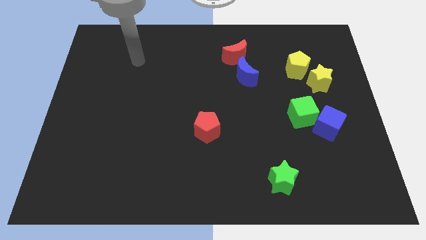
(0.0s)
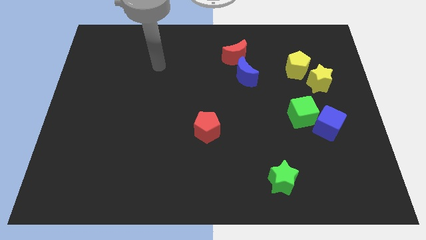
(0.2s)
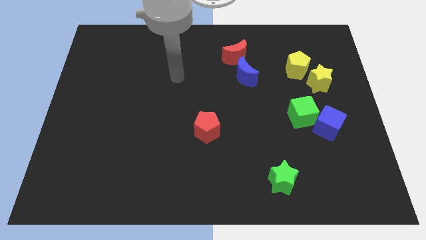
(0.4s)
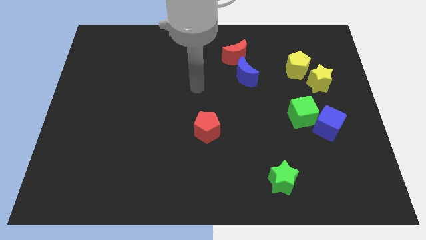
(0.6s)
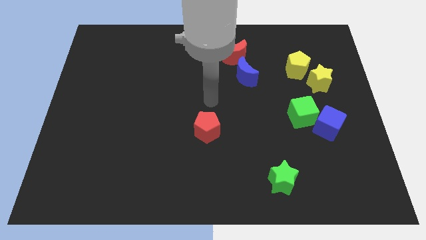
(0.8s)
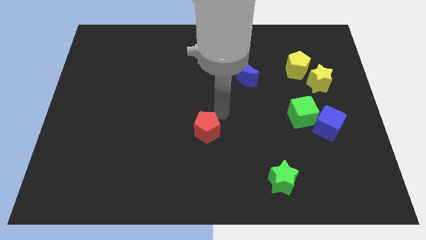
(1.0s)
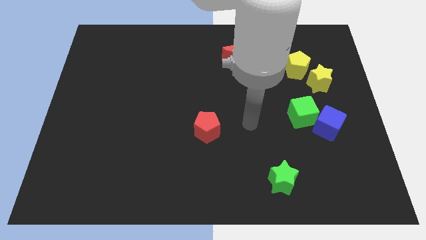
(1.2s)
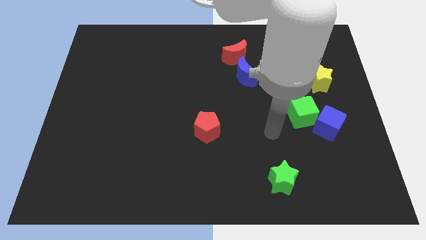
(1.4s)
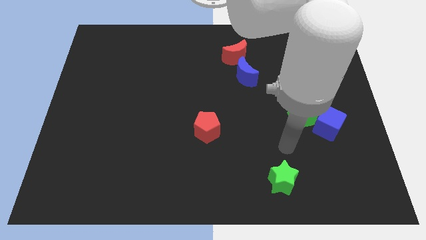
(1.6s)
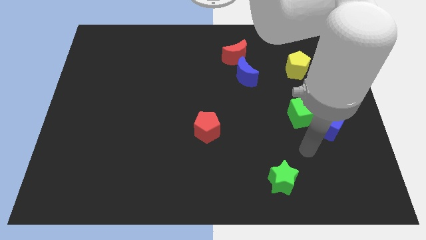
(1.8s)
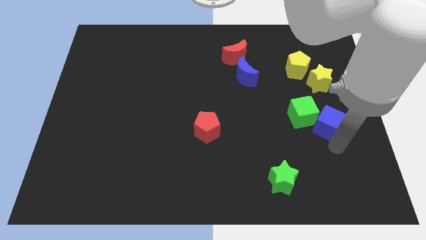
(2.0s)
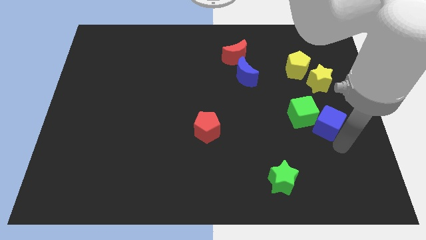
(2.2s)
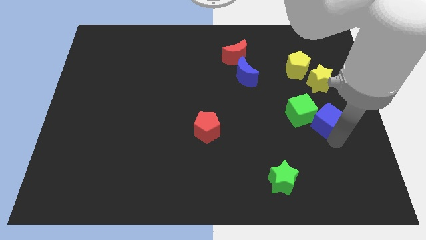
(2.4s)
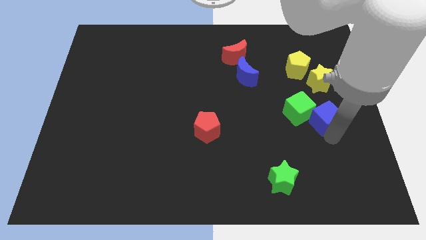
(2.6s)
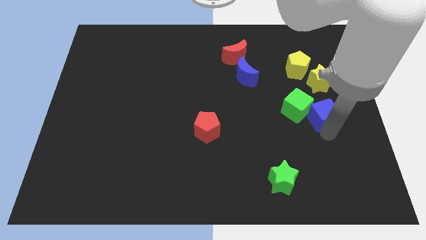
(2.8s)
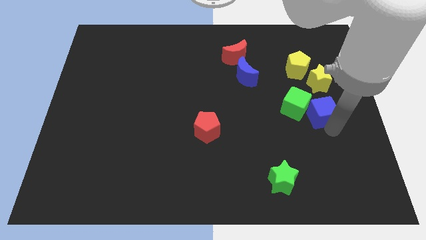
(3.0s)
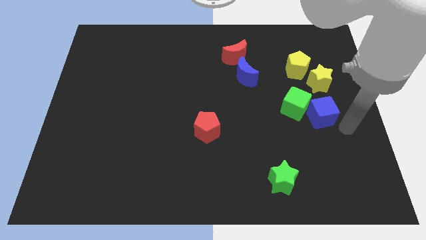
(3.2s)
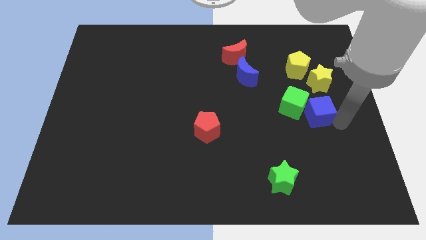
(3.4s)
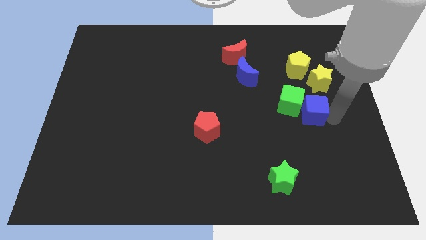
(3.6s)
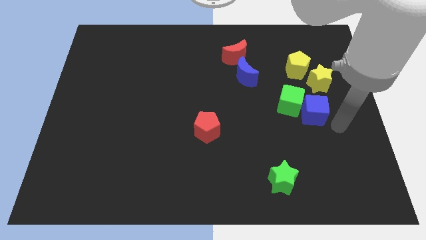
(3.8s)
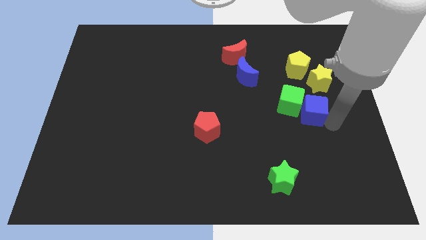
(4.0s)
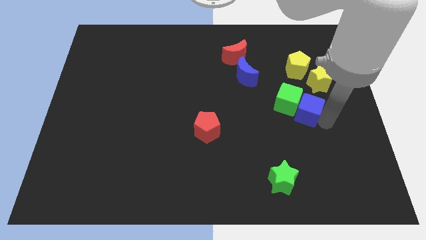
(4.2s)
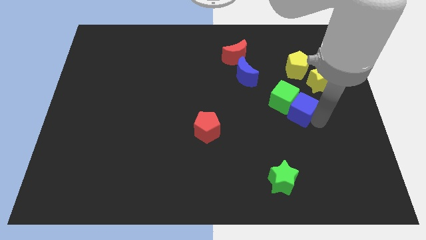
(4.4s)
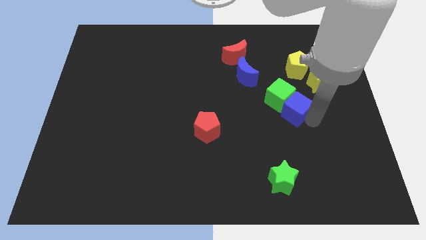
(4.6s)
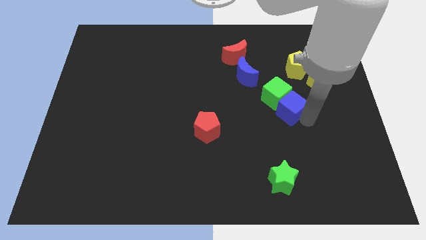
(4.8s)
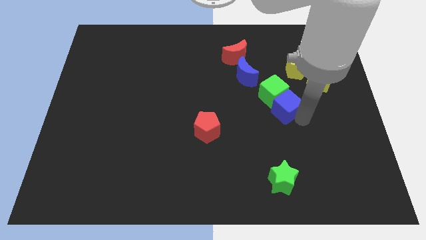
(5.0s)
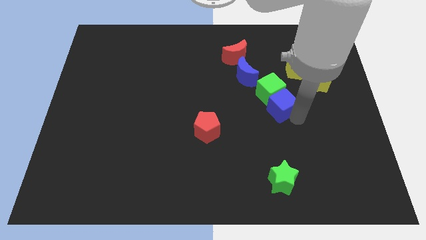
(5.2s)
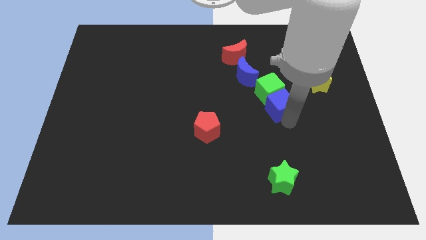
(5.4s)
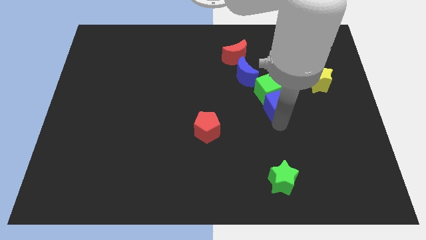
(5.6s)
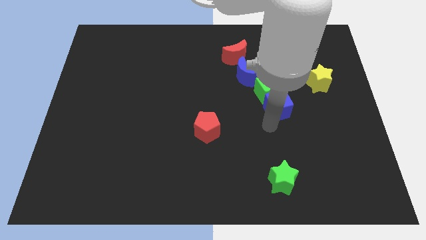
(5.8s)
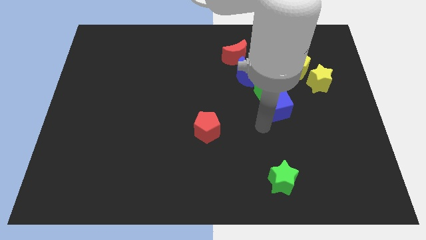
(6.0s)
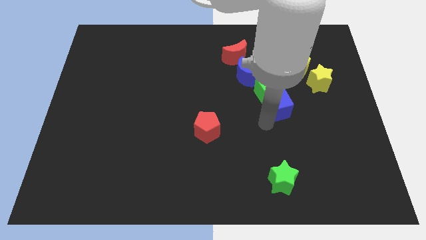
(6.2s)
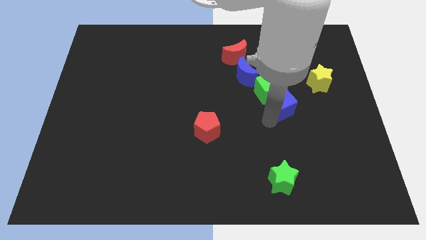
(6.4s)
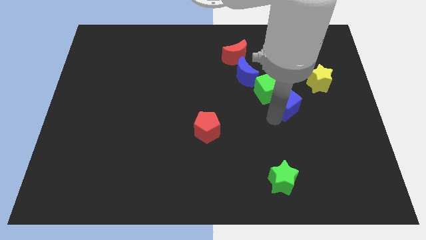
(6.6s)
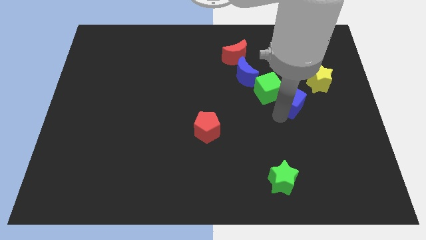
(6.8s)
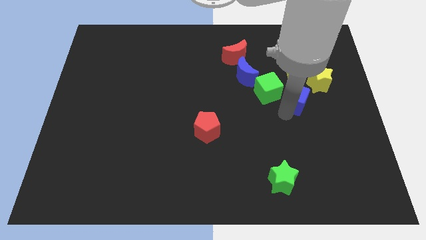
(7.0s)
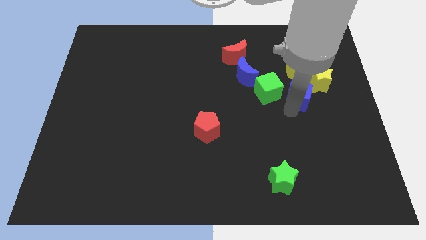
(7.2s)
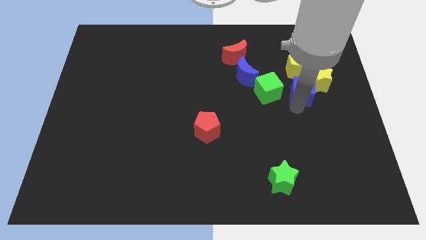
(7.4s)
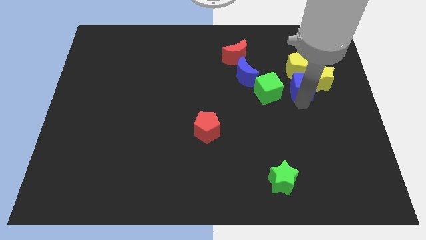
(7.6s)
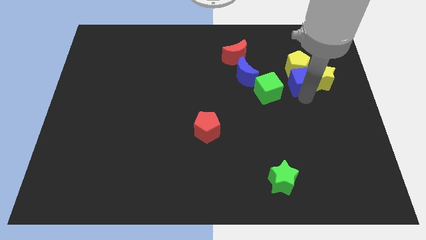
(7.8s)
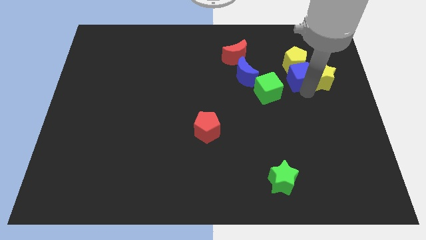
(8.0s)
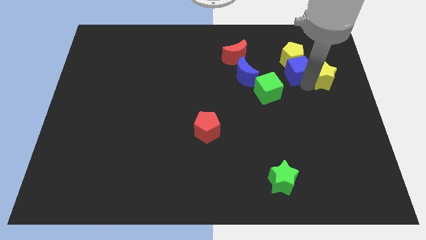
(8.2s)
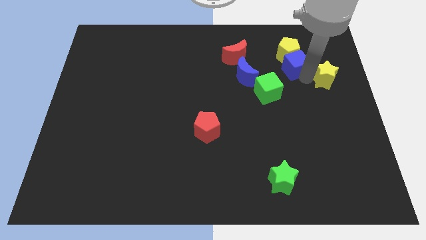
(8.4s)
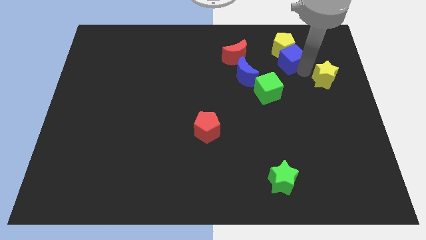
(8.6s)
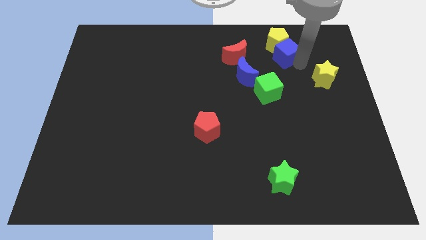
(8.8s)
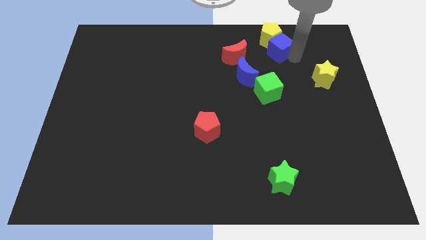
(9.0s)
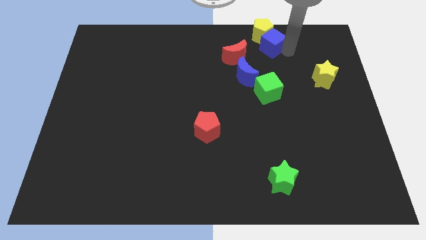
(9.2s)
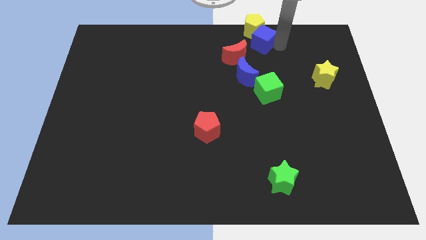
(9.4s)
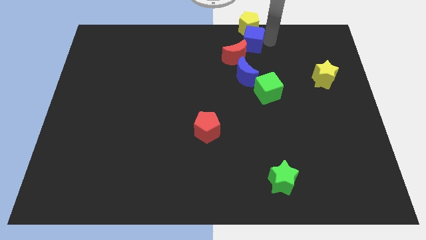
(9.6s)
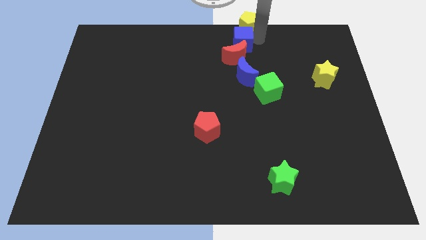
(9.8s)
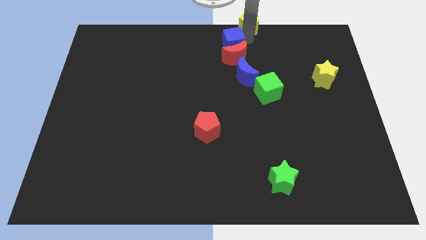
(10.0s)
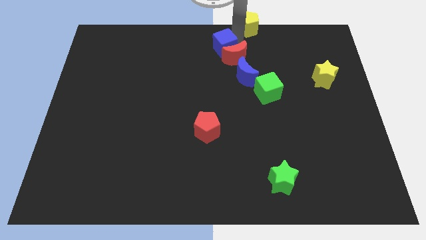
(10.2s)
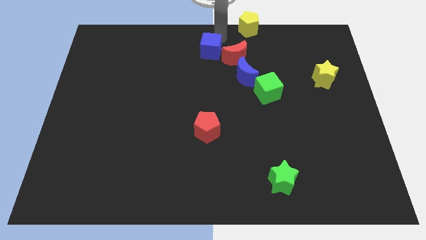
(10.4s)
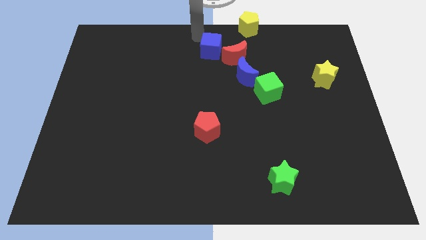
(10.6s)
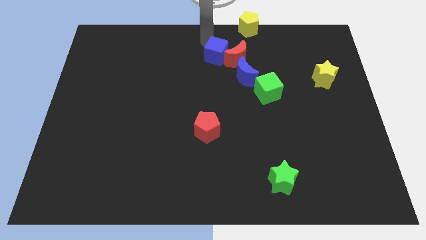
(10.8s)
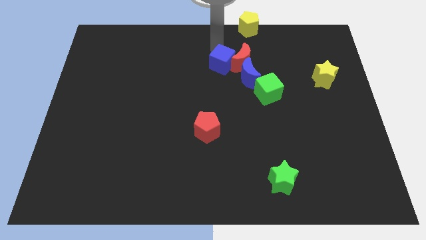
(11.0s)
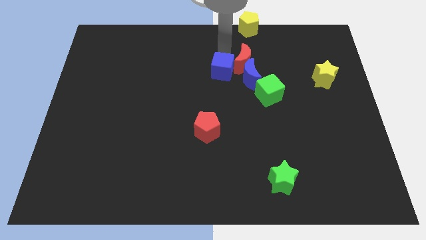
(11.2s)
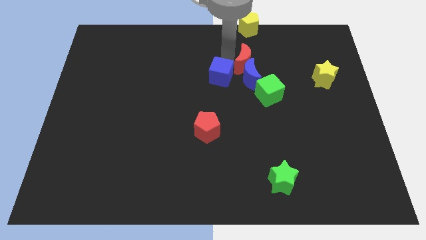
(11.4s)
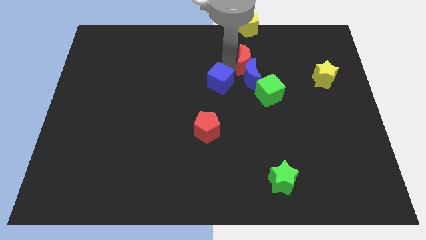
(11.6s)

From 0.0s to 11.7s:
push the blue cube above the red pentagon

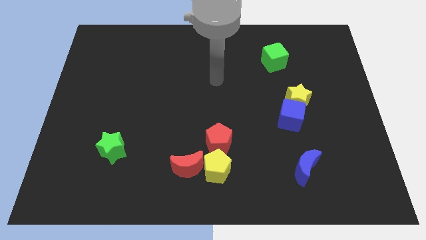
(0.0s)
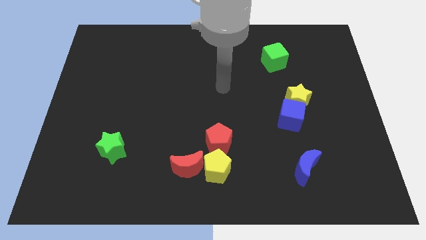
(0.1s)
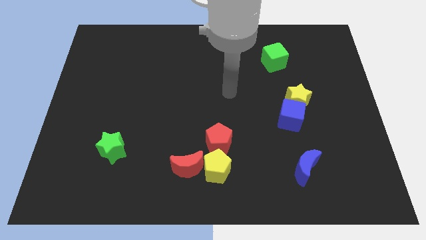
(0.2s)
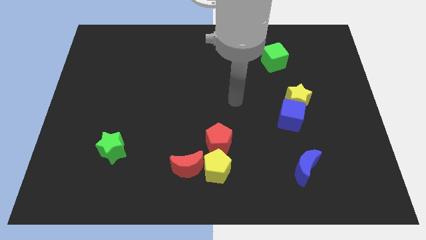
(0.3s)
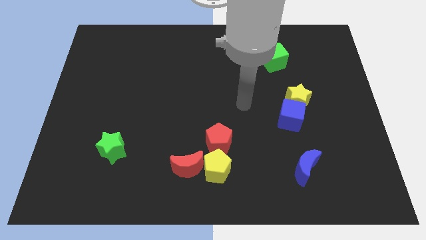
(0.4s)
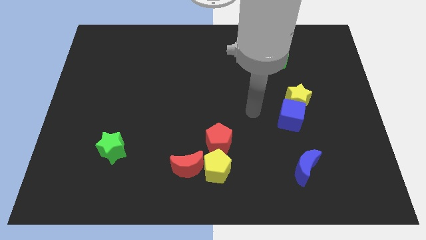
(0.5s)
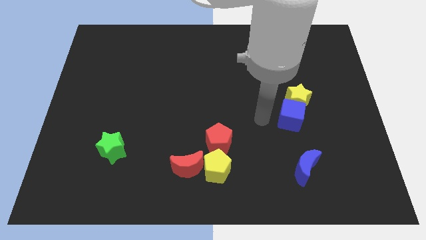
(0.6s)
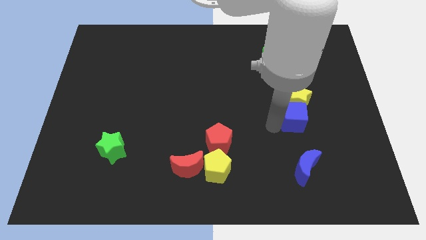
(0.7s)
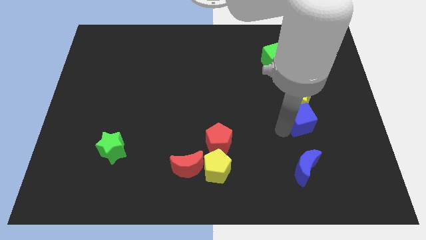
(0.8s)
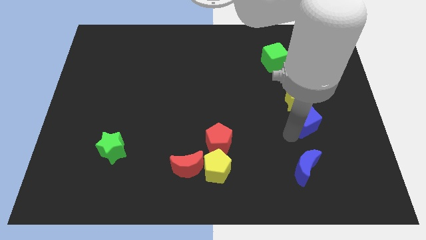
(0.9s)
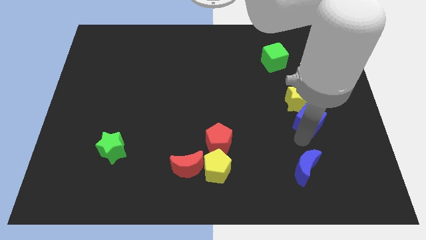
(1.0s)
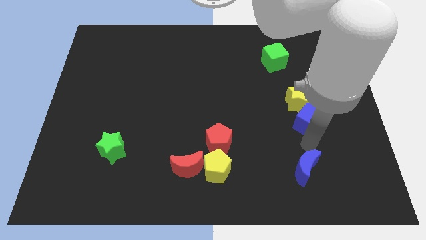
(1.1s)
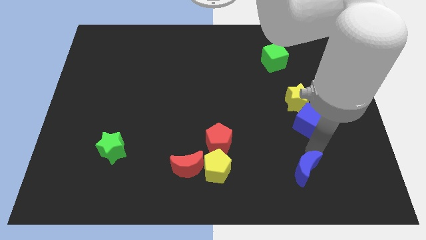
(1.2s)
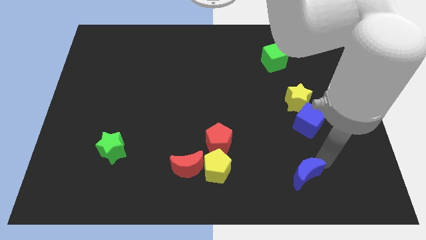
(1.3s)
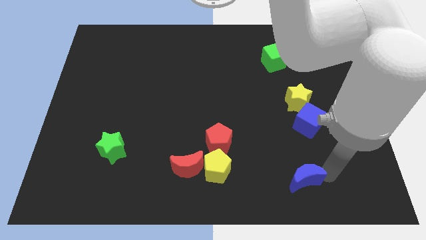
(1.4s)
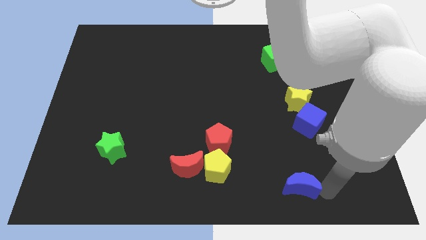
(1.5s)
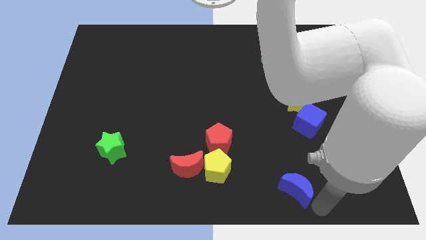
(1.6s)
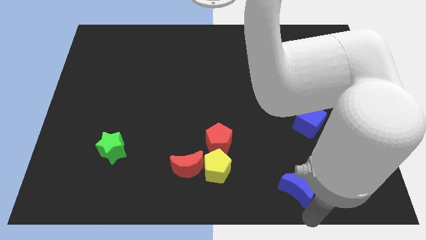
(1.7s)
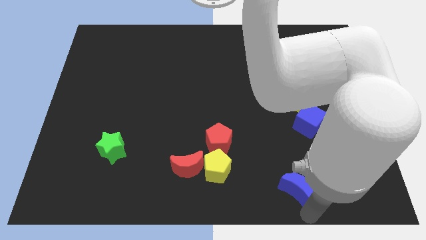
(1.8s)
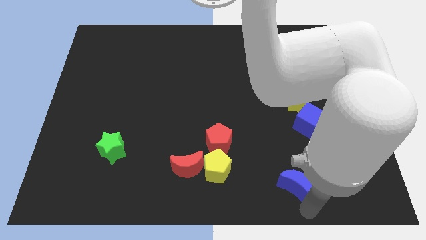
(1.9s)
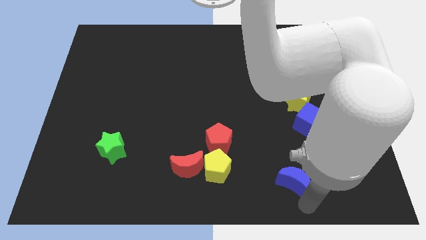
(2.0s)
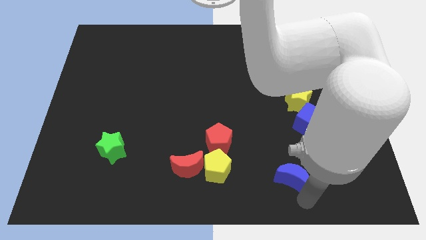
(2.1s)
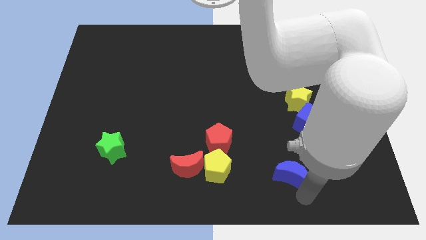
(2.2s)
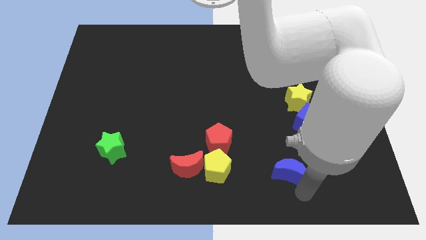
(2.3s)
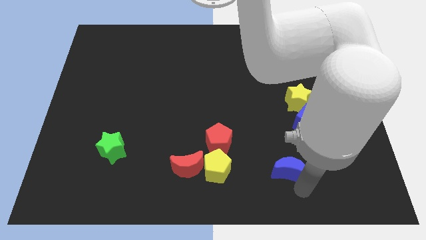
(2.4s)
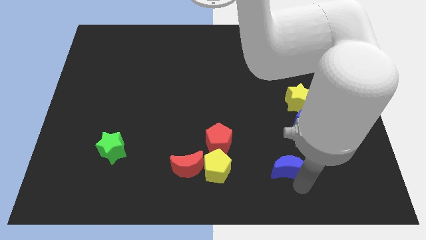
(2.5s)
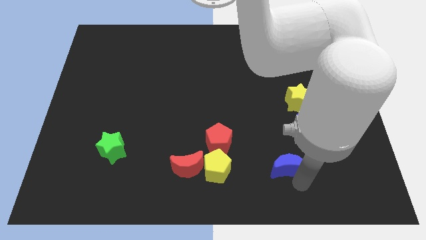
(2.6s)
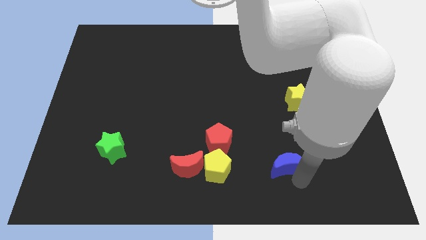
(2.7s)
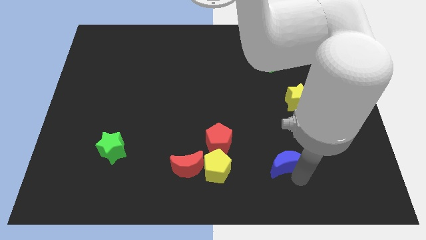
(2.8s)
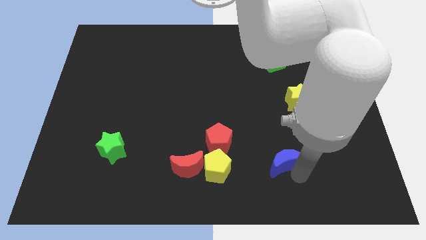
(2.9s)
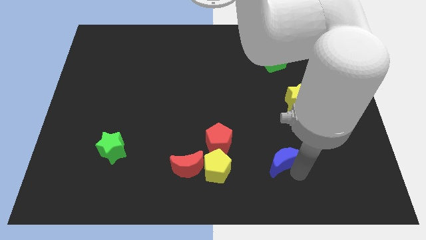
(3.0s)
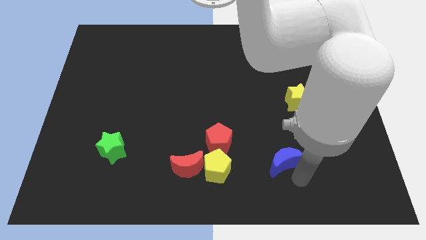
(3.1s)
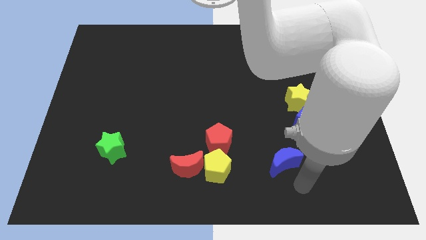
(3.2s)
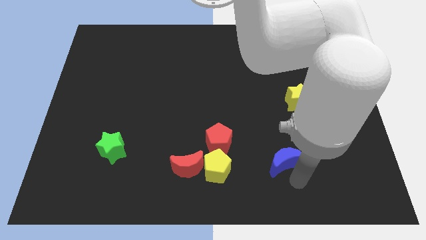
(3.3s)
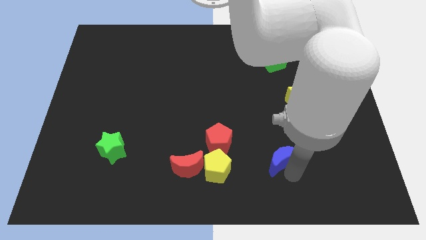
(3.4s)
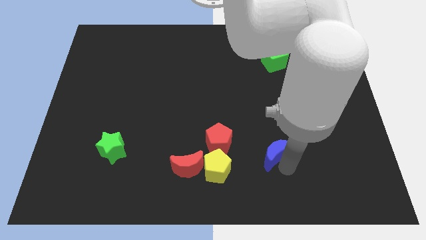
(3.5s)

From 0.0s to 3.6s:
move the blue moon just right of the red pentagon
